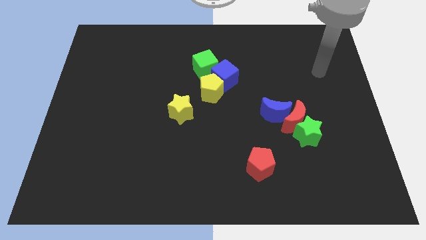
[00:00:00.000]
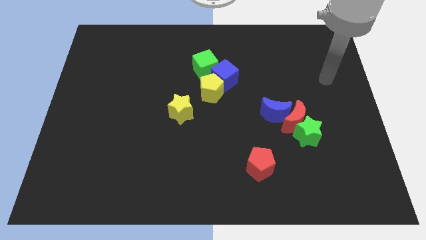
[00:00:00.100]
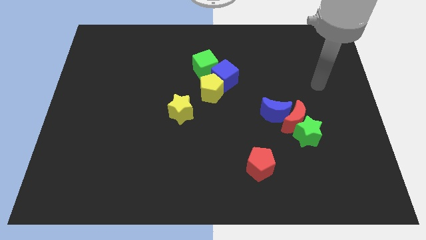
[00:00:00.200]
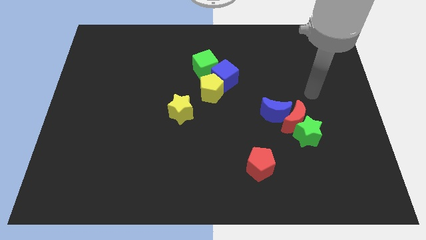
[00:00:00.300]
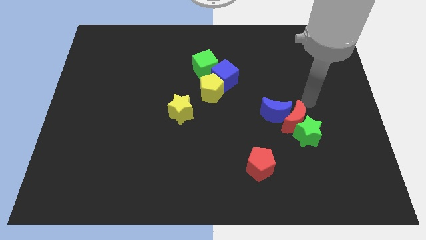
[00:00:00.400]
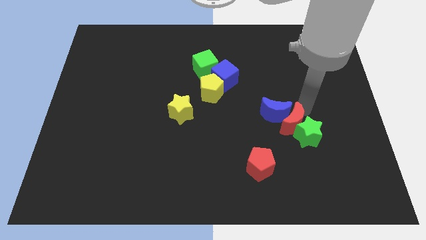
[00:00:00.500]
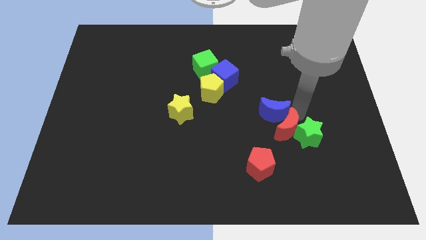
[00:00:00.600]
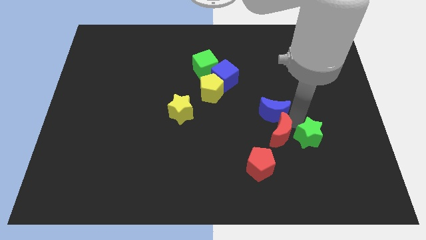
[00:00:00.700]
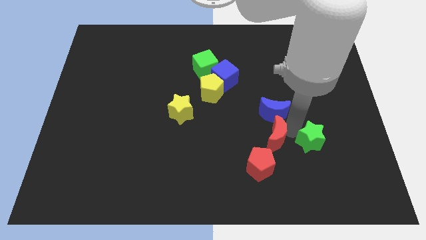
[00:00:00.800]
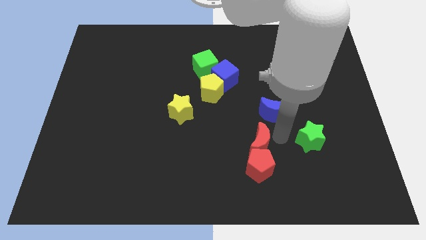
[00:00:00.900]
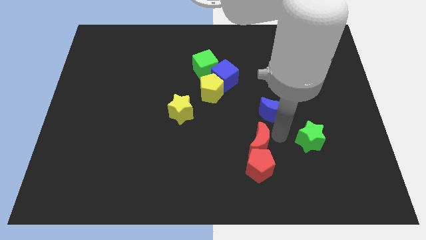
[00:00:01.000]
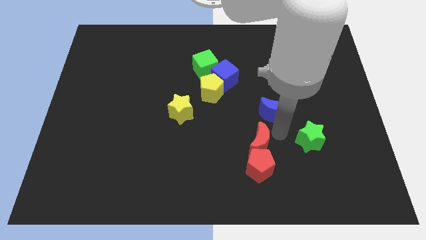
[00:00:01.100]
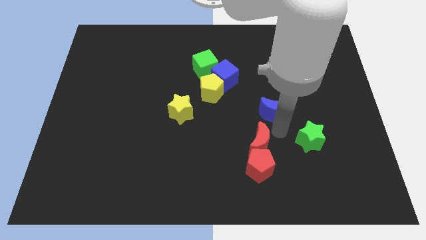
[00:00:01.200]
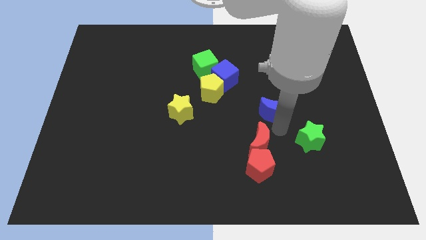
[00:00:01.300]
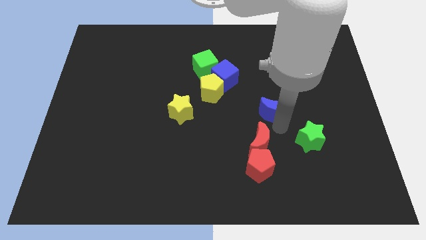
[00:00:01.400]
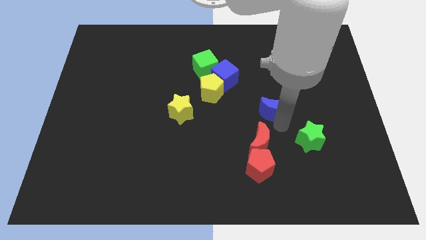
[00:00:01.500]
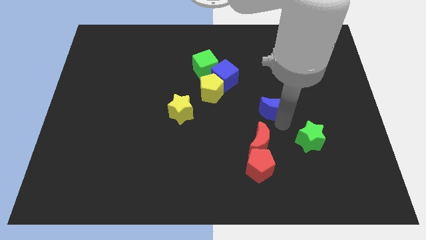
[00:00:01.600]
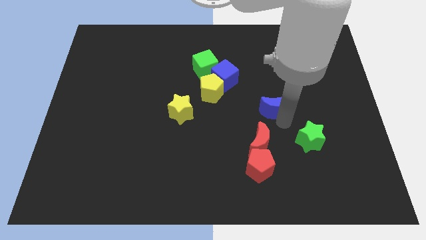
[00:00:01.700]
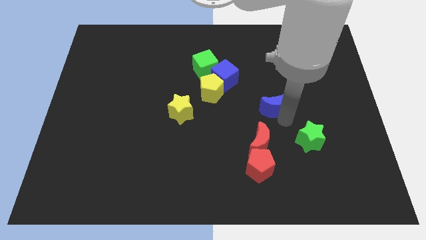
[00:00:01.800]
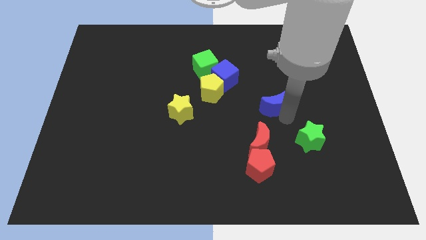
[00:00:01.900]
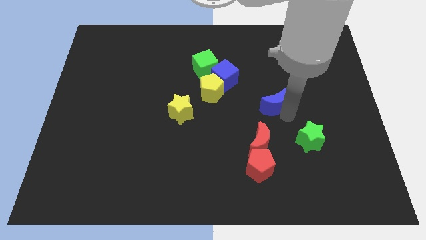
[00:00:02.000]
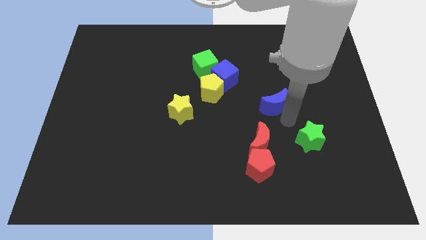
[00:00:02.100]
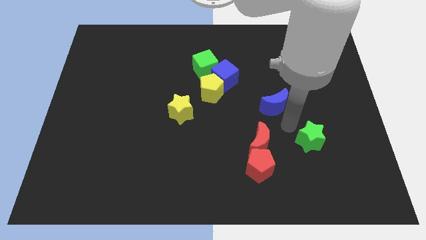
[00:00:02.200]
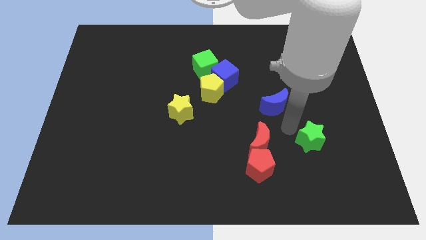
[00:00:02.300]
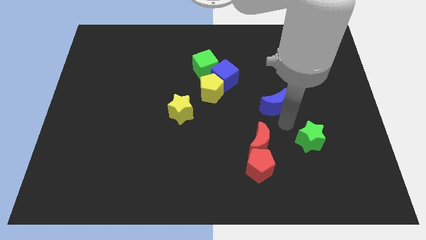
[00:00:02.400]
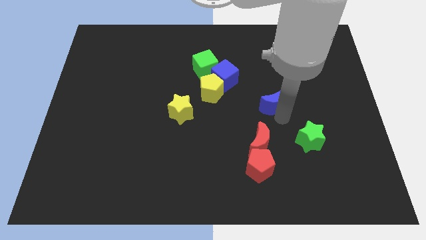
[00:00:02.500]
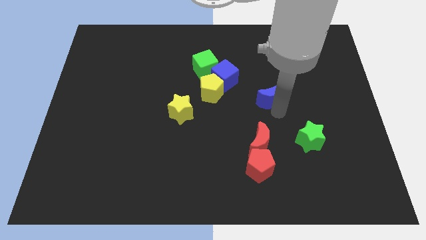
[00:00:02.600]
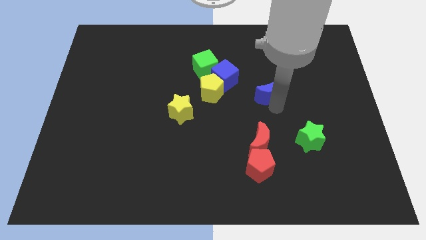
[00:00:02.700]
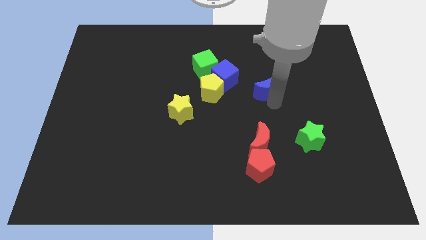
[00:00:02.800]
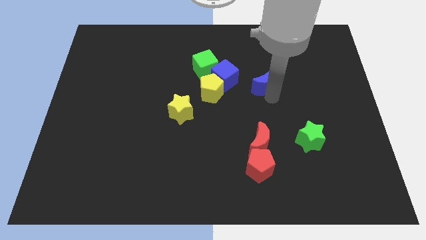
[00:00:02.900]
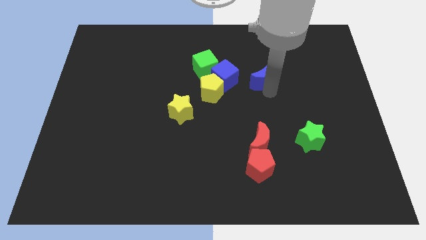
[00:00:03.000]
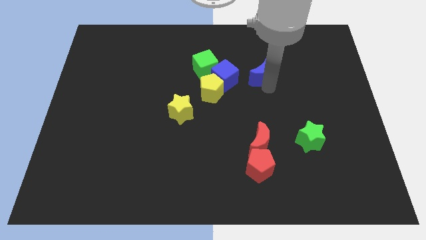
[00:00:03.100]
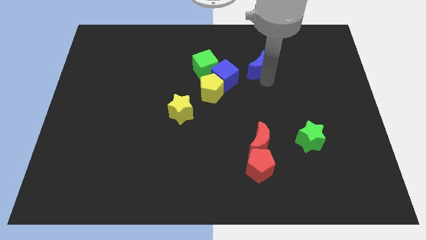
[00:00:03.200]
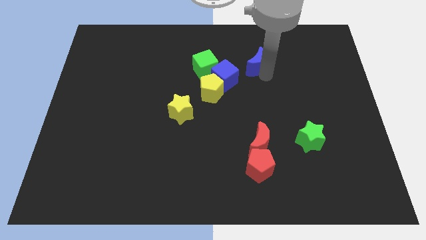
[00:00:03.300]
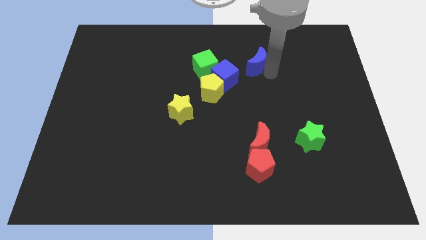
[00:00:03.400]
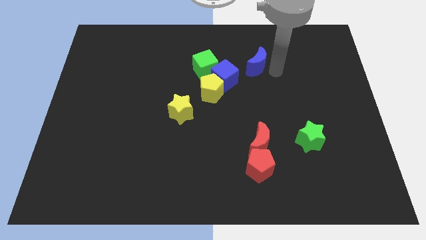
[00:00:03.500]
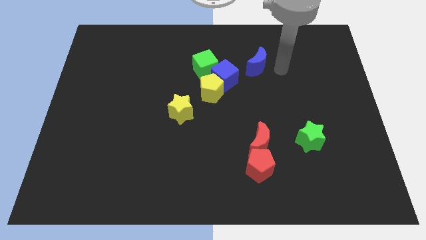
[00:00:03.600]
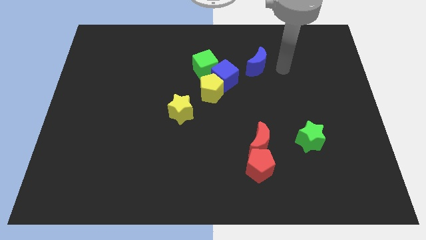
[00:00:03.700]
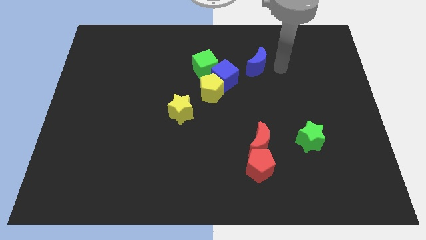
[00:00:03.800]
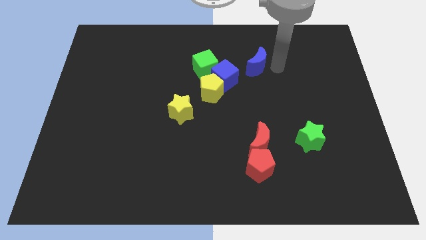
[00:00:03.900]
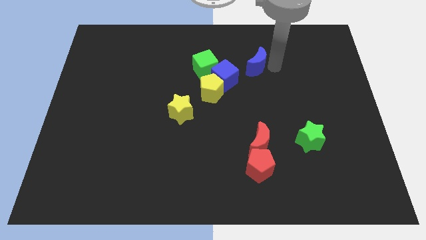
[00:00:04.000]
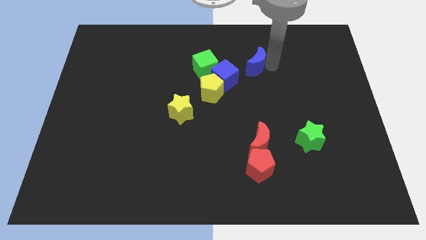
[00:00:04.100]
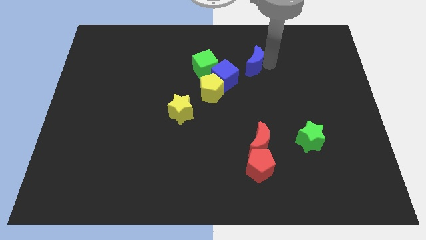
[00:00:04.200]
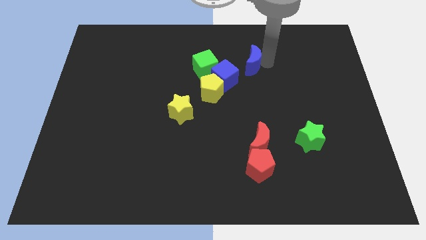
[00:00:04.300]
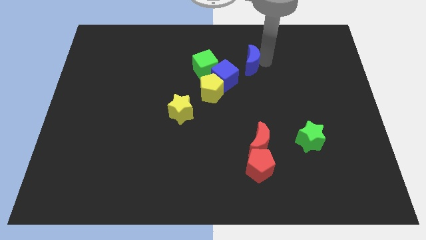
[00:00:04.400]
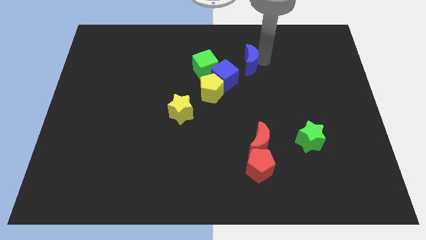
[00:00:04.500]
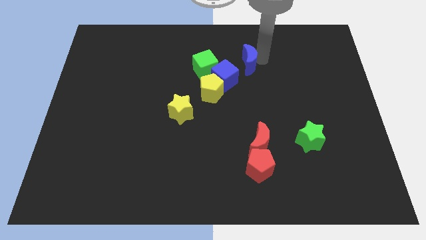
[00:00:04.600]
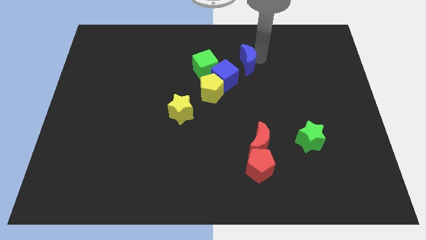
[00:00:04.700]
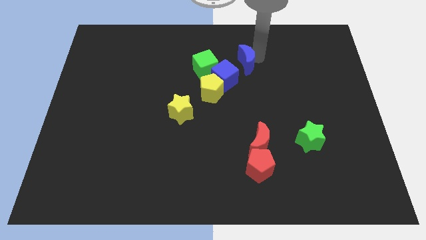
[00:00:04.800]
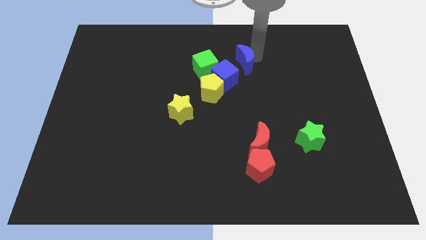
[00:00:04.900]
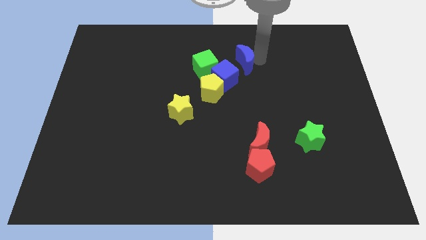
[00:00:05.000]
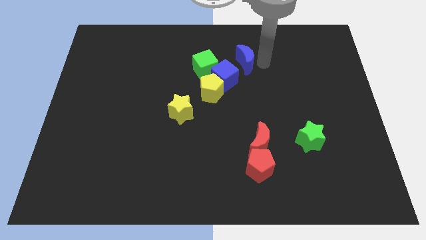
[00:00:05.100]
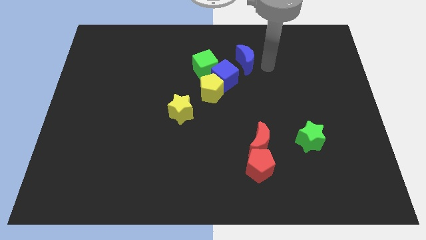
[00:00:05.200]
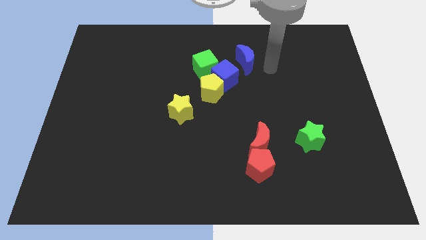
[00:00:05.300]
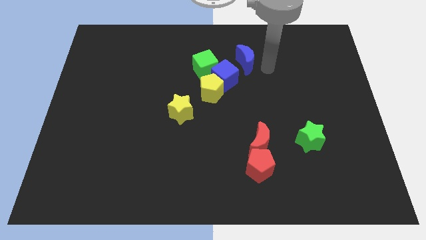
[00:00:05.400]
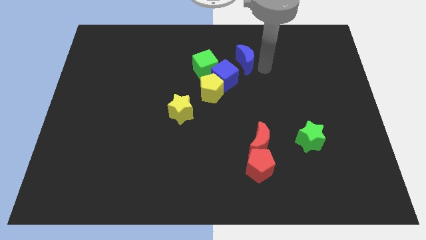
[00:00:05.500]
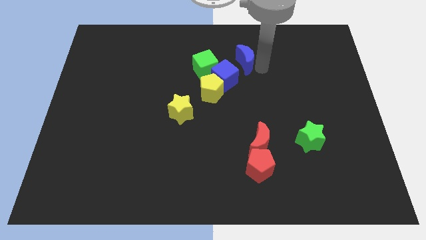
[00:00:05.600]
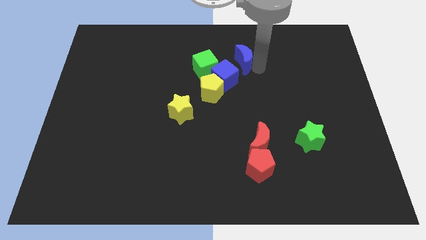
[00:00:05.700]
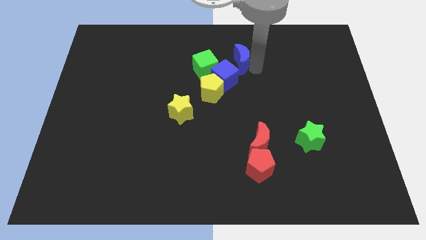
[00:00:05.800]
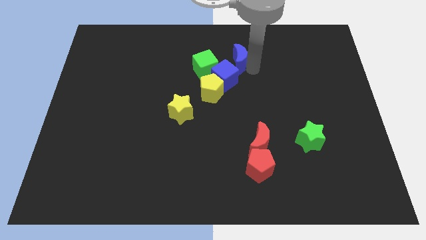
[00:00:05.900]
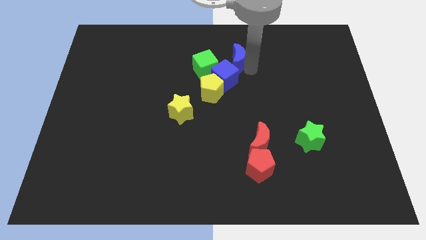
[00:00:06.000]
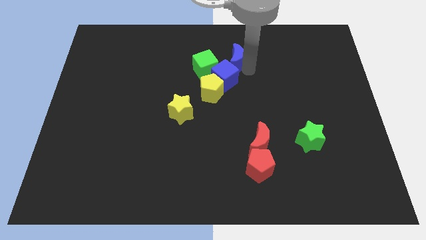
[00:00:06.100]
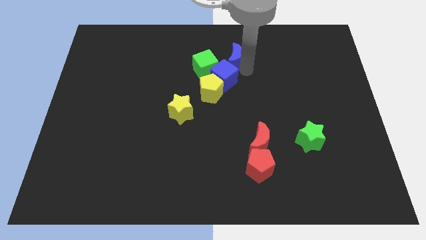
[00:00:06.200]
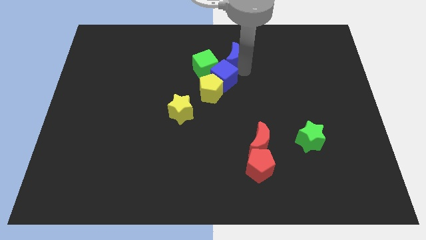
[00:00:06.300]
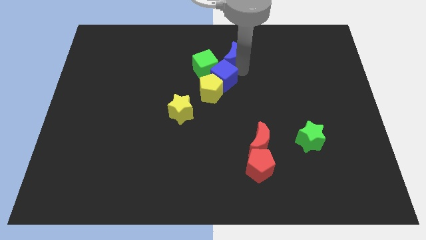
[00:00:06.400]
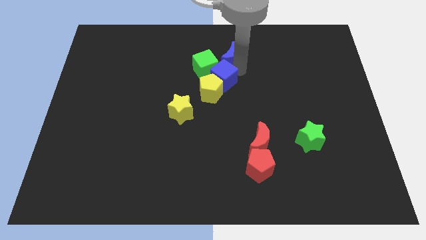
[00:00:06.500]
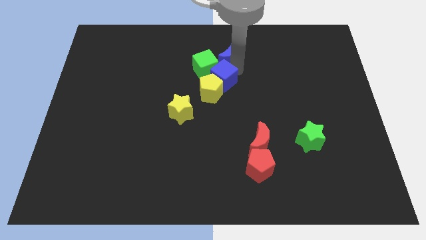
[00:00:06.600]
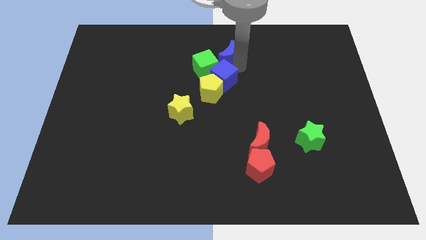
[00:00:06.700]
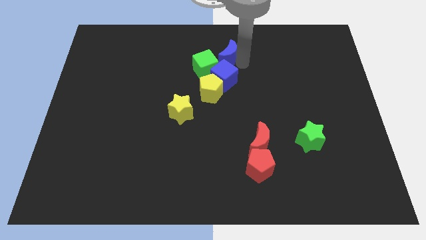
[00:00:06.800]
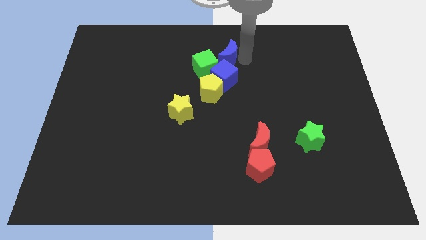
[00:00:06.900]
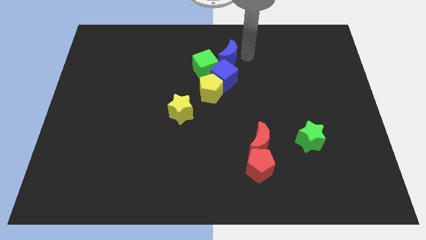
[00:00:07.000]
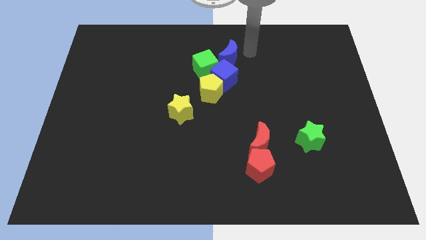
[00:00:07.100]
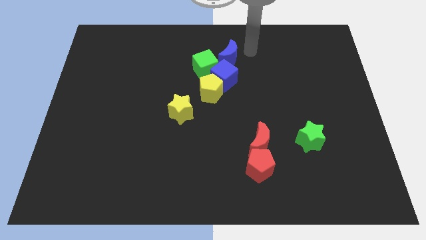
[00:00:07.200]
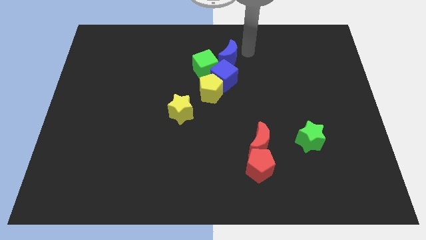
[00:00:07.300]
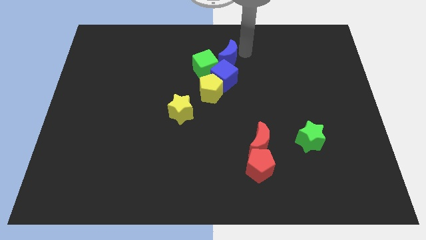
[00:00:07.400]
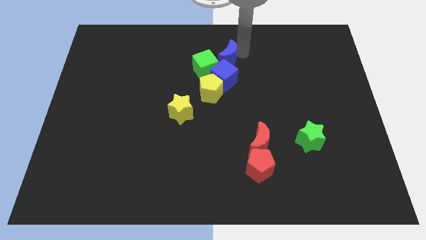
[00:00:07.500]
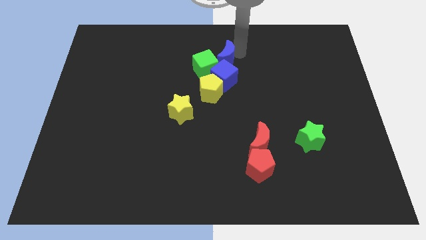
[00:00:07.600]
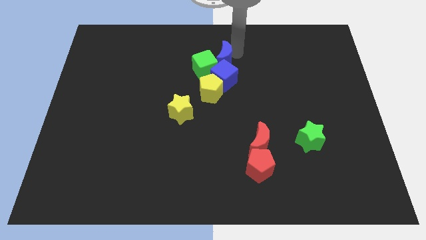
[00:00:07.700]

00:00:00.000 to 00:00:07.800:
put the blue moon next to the green cube

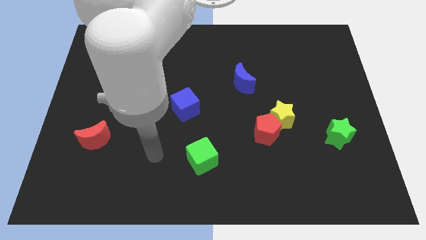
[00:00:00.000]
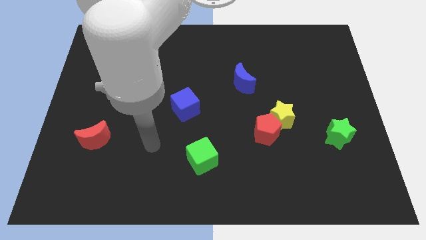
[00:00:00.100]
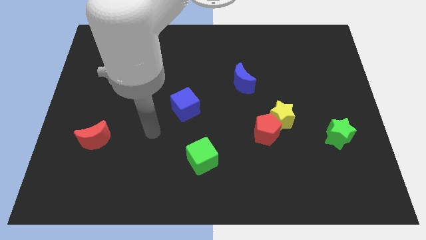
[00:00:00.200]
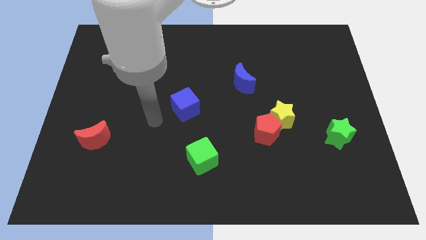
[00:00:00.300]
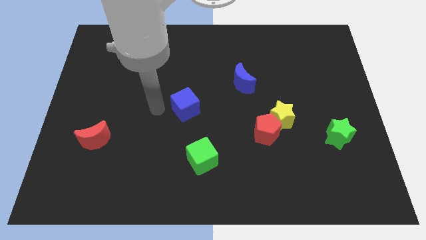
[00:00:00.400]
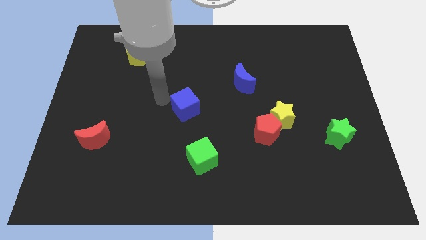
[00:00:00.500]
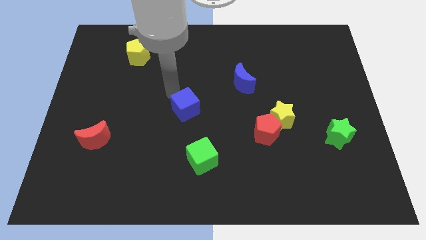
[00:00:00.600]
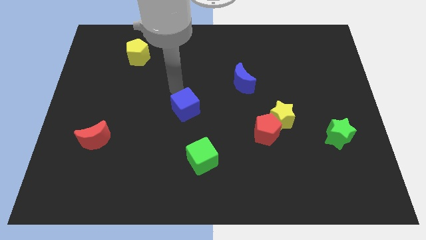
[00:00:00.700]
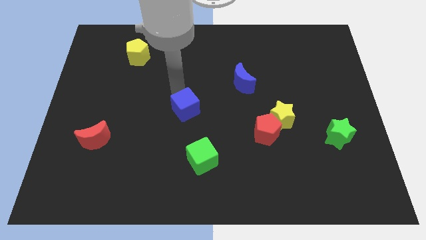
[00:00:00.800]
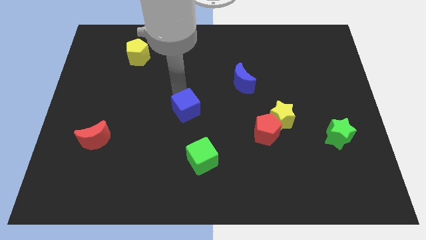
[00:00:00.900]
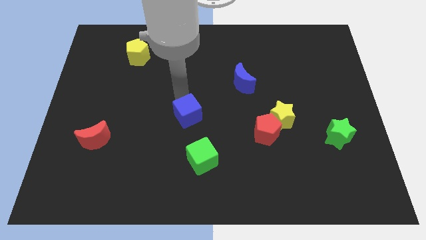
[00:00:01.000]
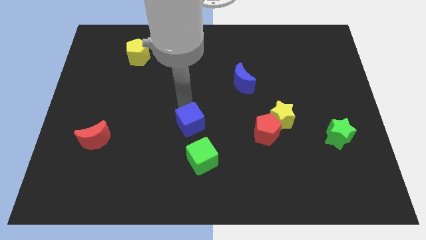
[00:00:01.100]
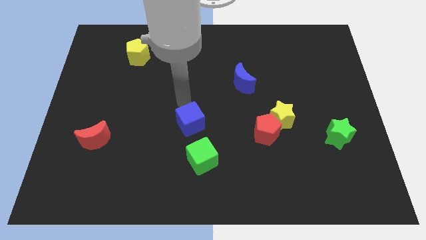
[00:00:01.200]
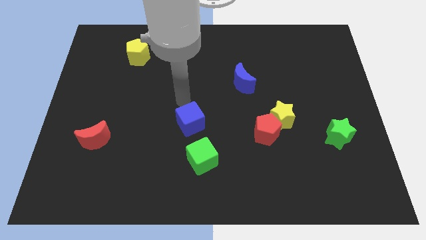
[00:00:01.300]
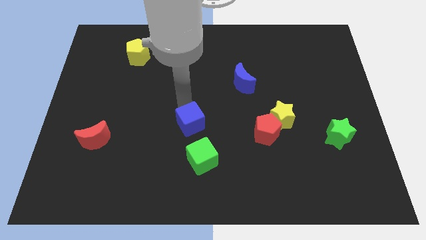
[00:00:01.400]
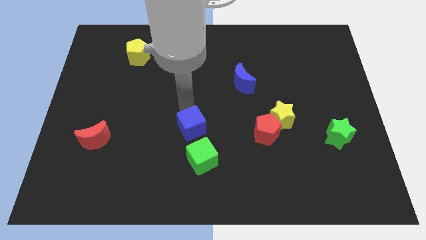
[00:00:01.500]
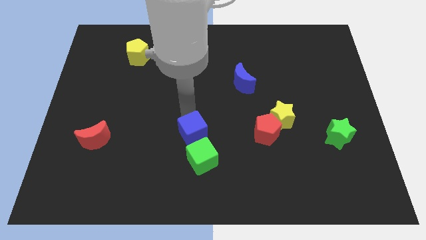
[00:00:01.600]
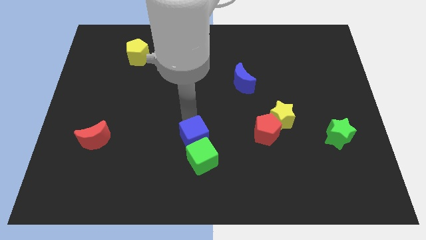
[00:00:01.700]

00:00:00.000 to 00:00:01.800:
move the blue cube towards the green cube
